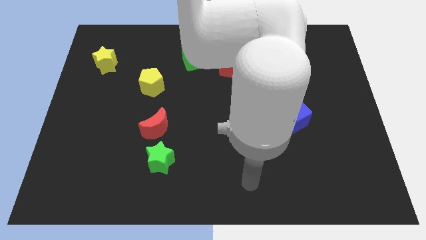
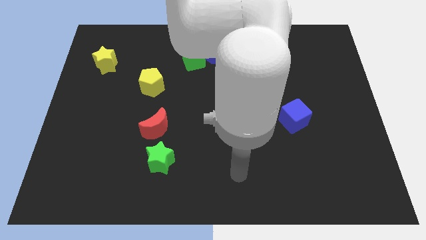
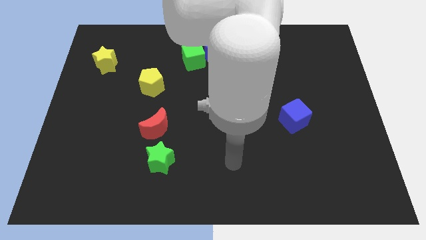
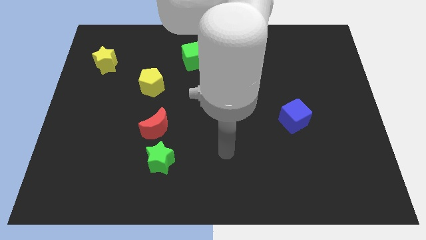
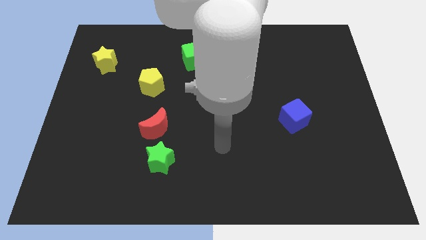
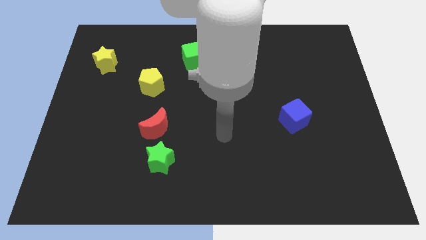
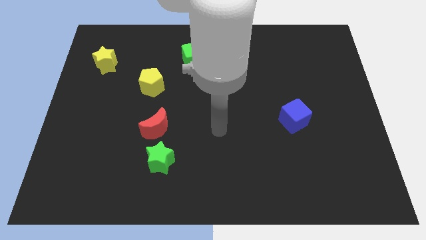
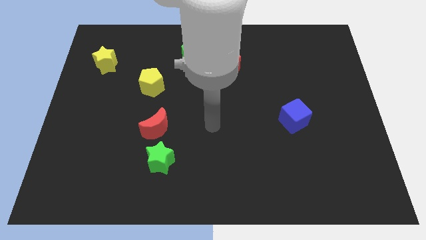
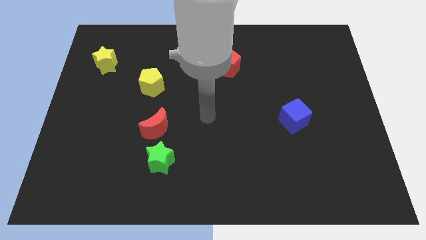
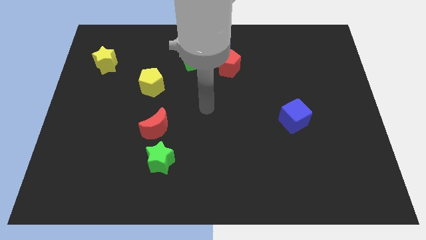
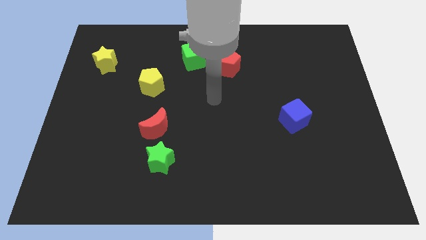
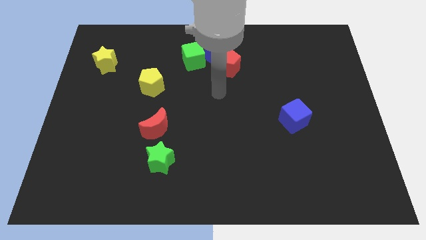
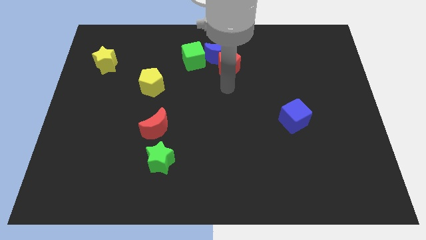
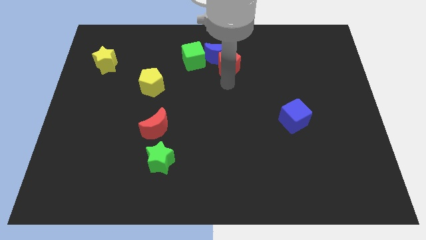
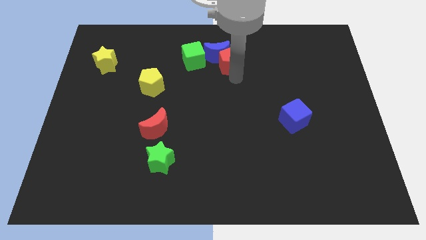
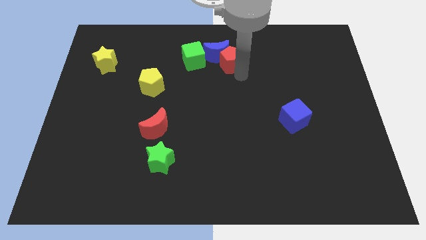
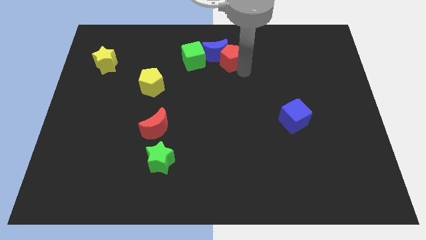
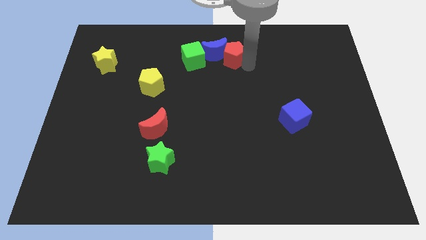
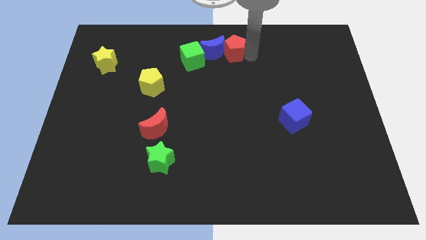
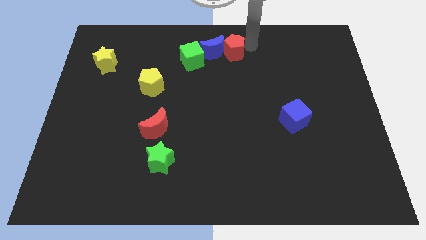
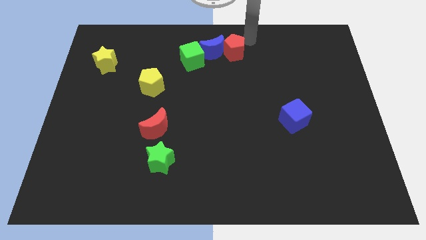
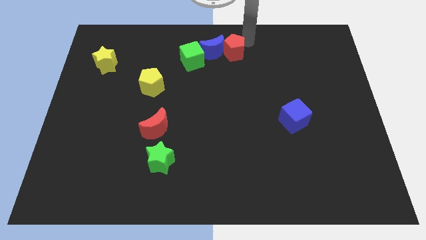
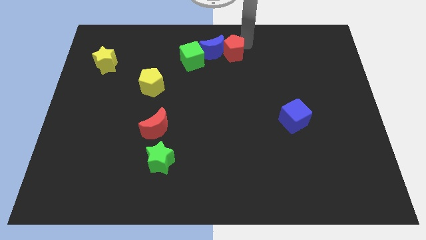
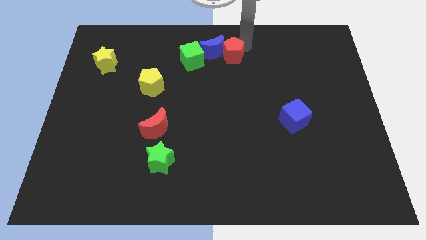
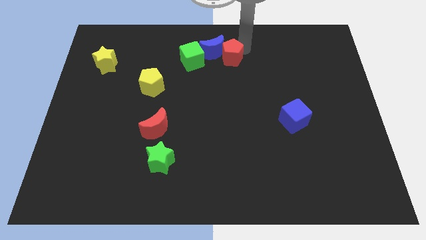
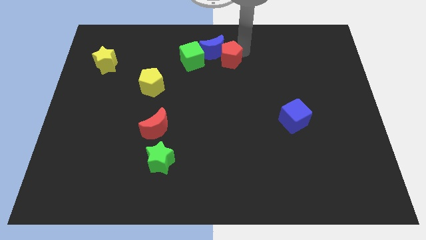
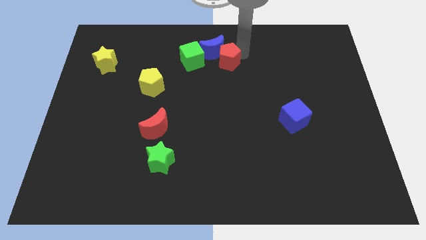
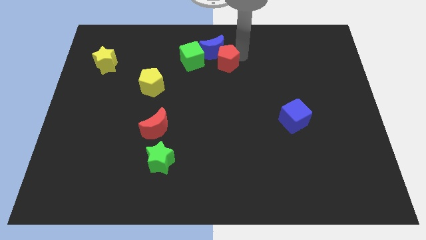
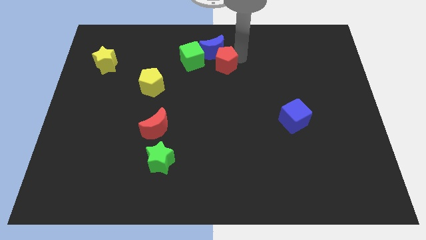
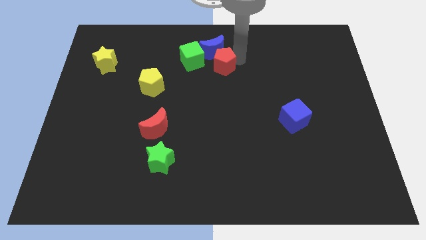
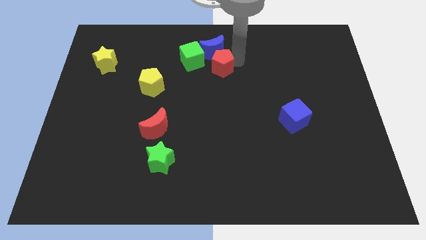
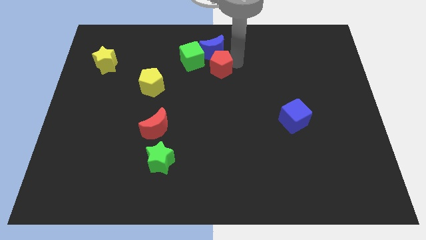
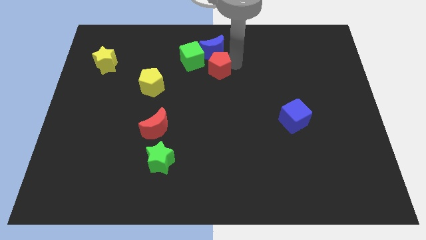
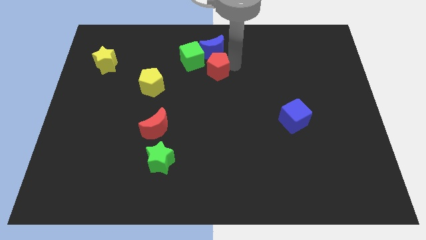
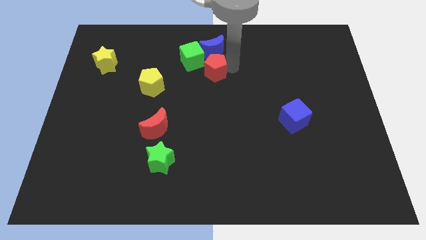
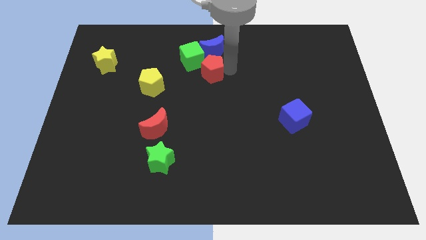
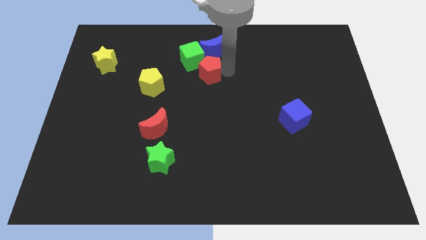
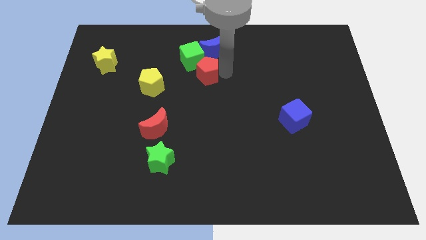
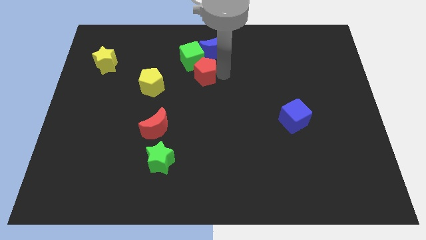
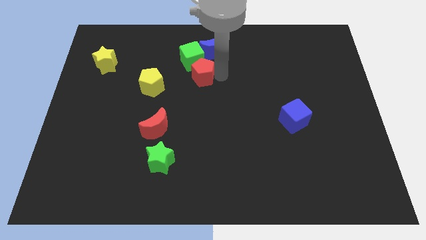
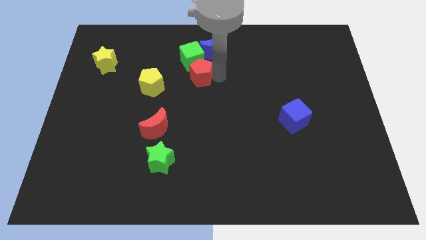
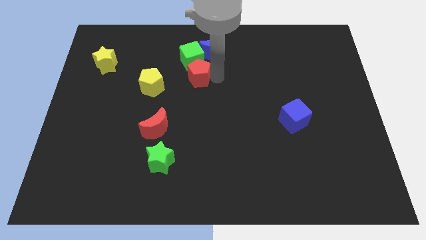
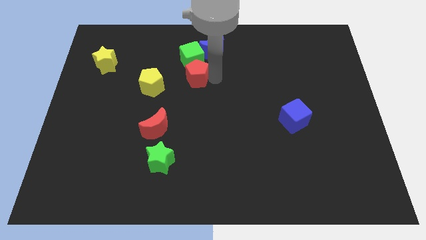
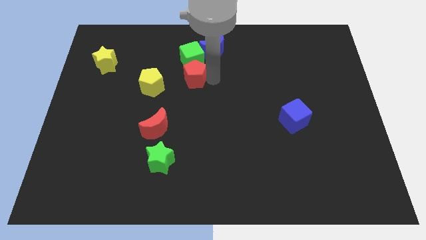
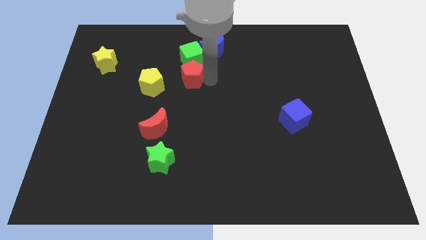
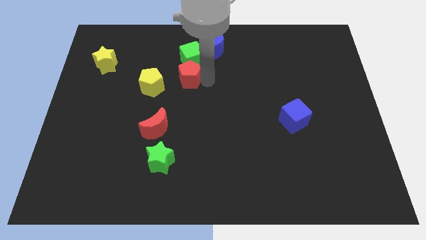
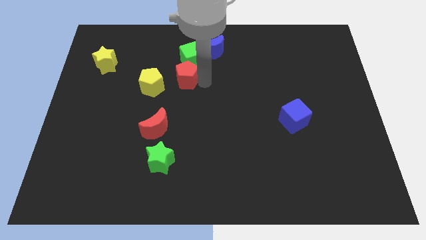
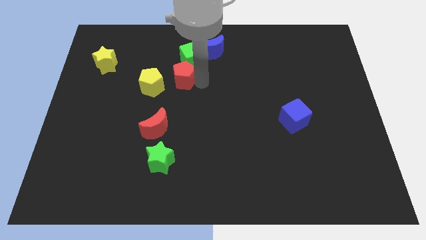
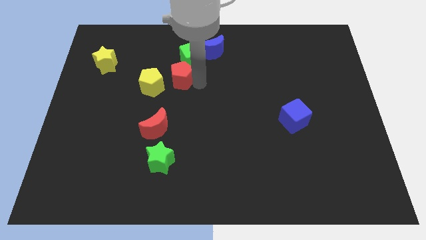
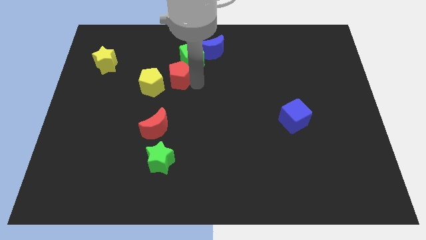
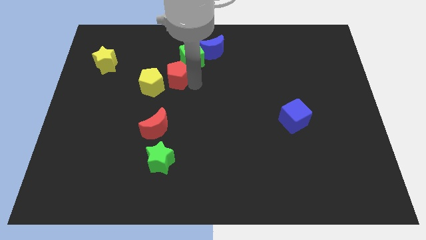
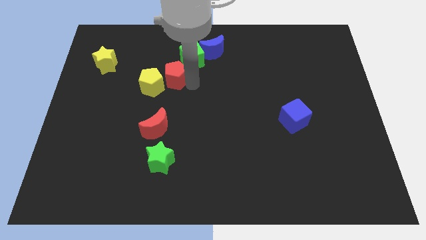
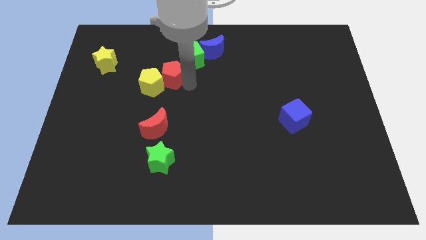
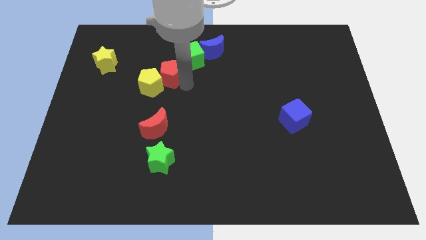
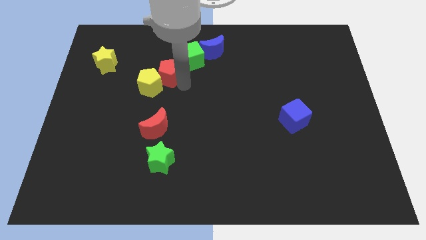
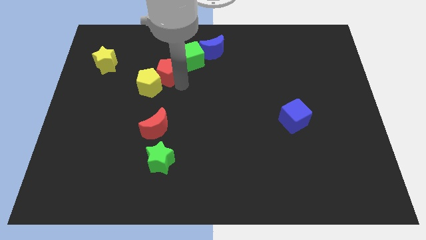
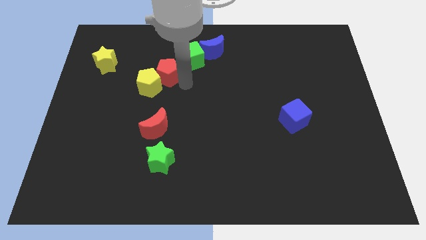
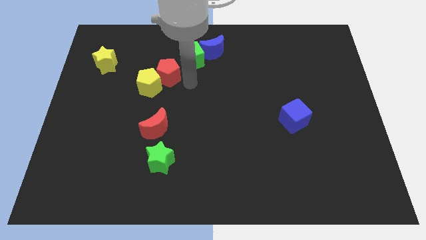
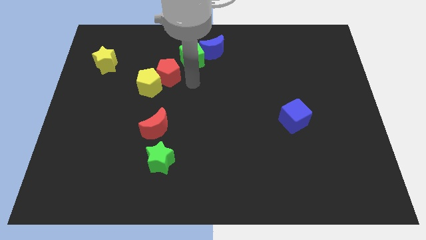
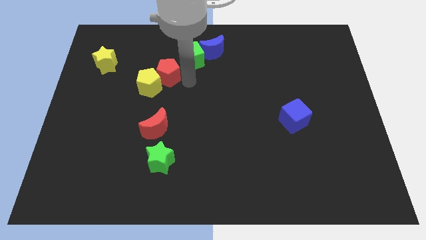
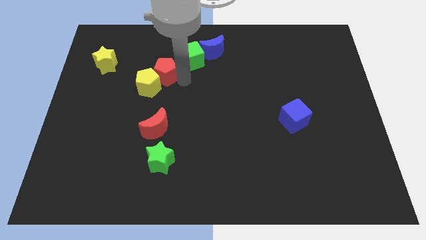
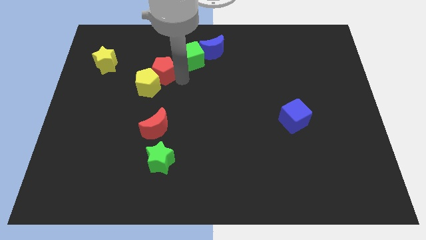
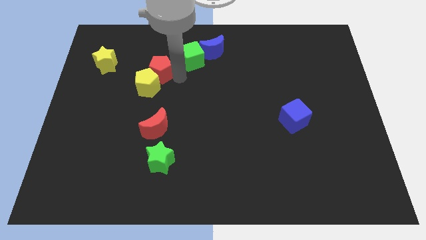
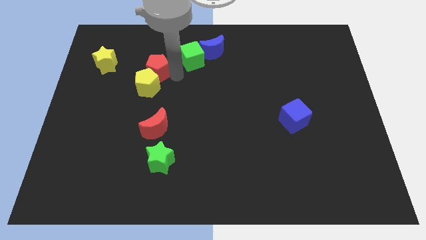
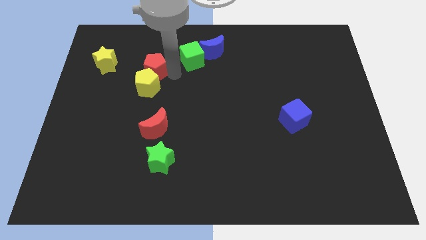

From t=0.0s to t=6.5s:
push the red pentagon to the top left side of the yellow pentagon
